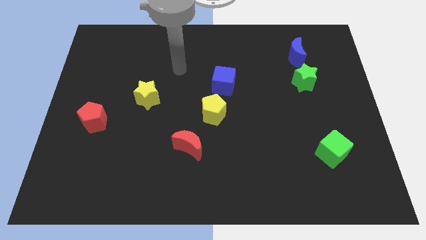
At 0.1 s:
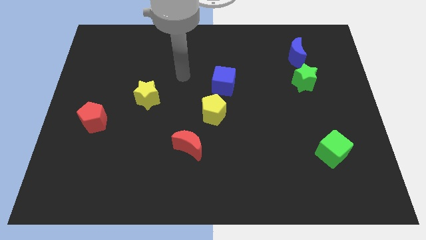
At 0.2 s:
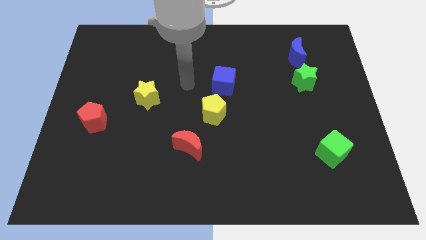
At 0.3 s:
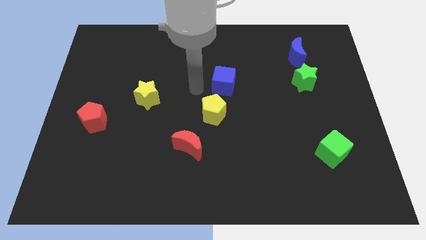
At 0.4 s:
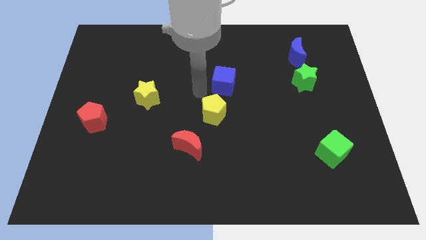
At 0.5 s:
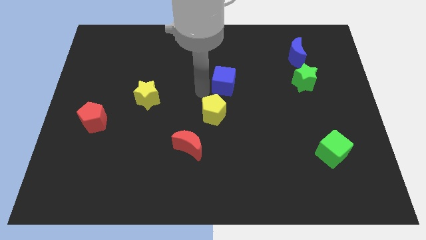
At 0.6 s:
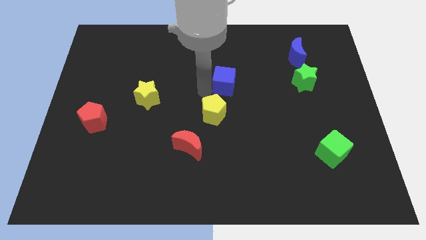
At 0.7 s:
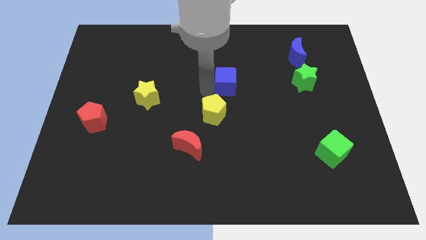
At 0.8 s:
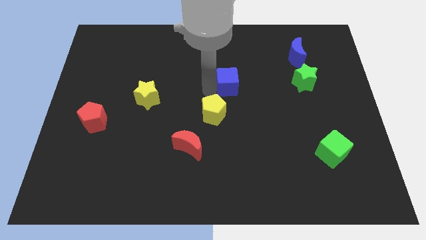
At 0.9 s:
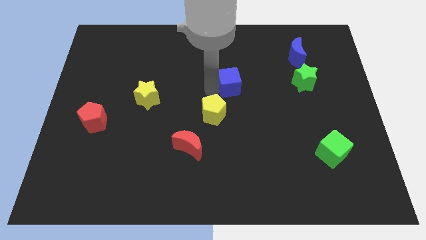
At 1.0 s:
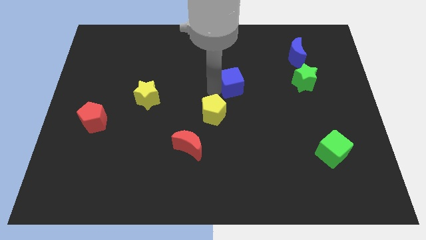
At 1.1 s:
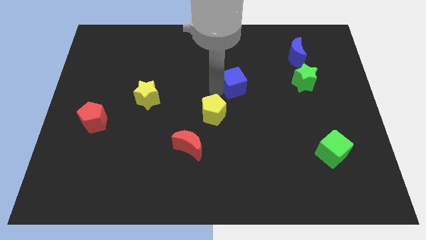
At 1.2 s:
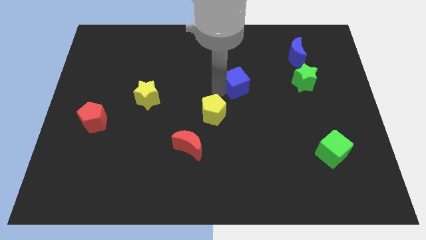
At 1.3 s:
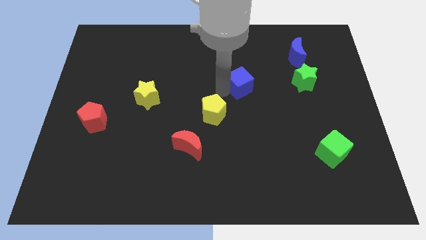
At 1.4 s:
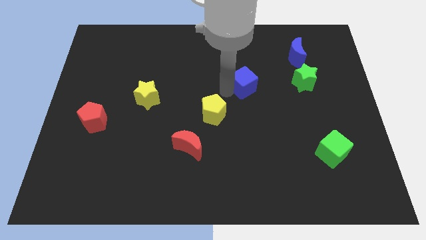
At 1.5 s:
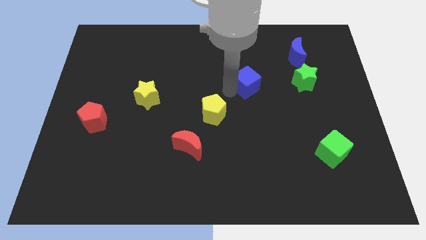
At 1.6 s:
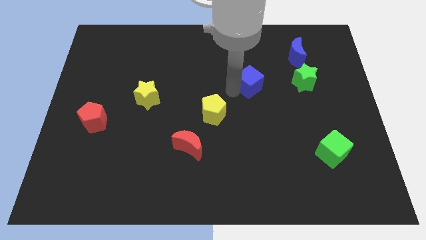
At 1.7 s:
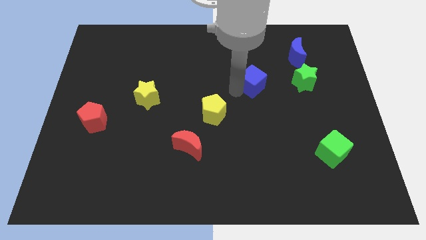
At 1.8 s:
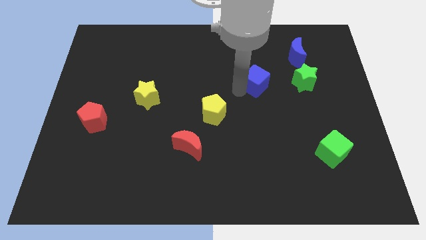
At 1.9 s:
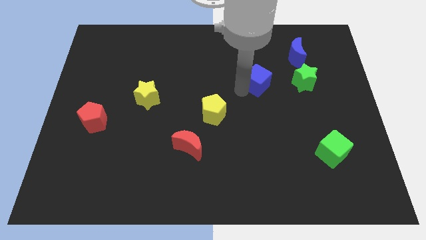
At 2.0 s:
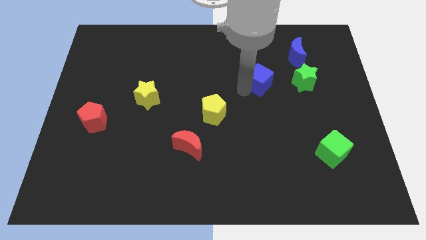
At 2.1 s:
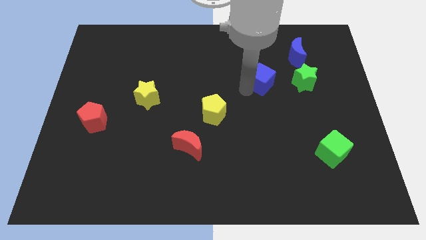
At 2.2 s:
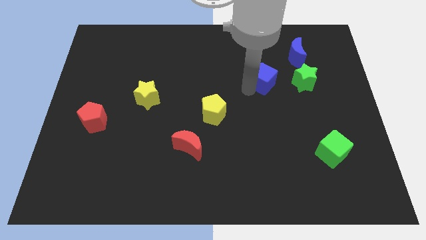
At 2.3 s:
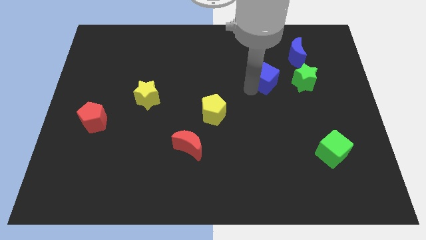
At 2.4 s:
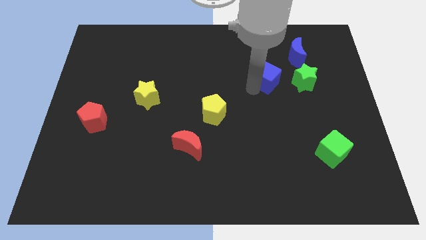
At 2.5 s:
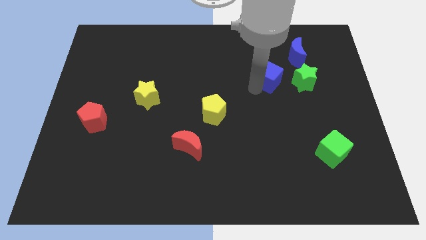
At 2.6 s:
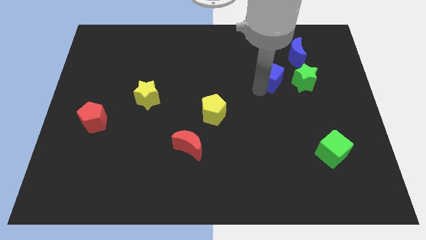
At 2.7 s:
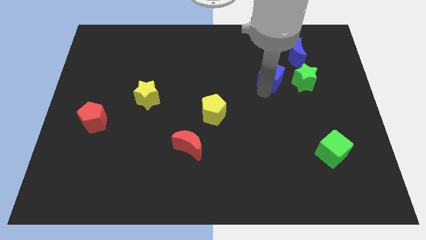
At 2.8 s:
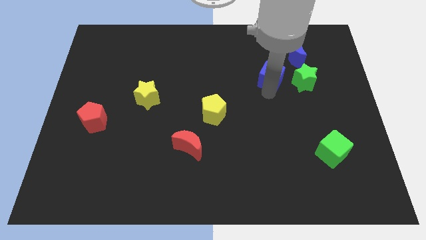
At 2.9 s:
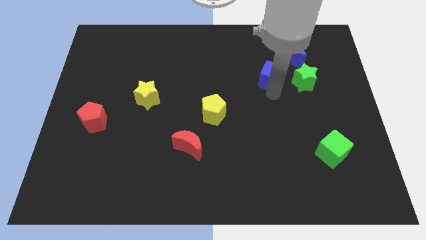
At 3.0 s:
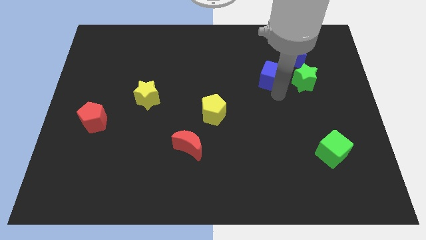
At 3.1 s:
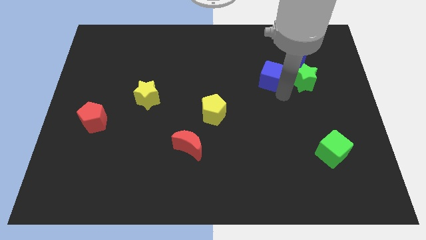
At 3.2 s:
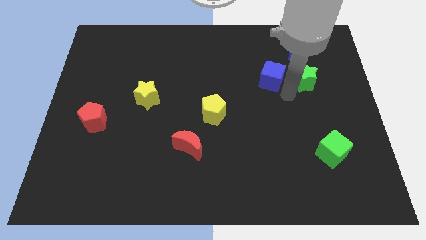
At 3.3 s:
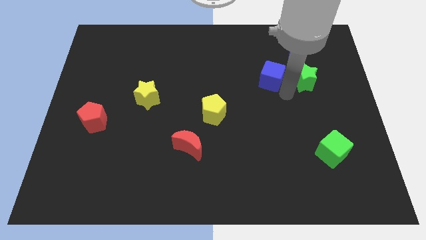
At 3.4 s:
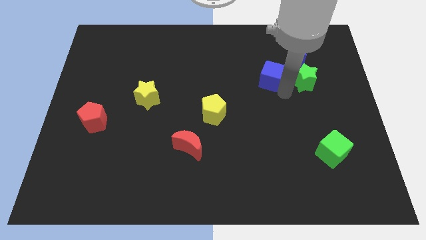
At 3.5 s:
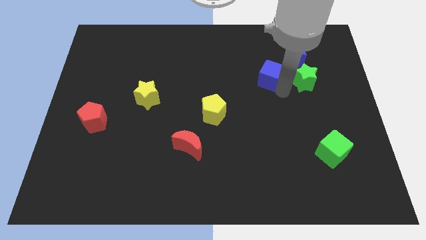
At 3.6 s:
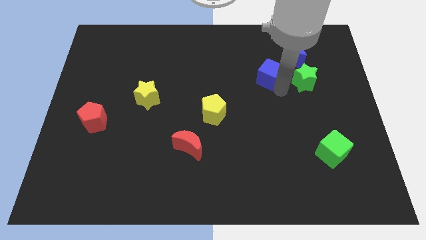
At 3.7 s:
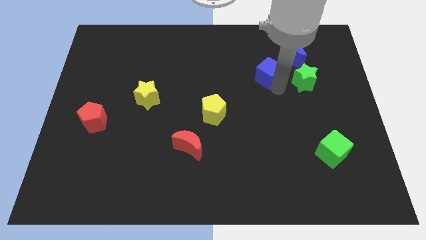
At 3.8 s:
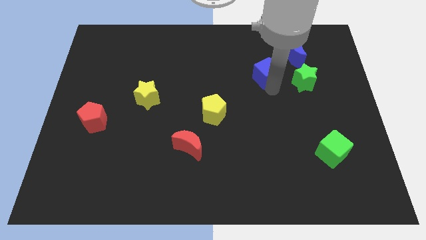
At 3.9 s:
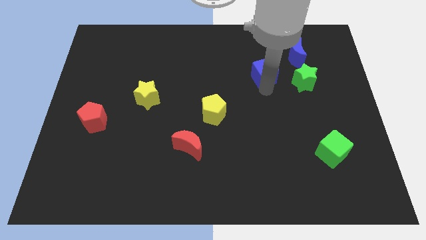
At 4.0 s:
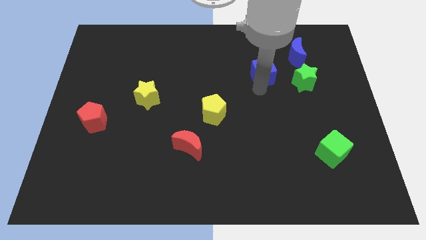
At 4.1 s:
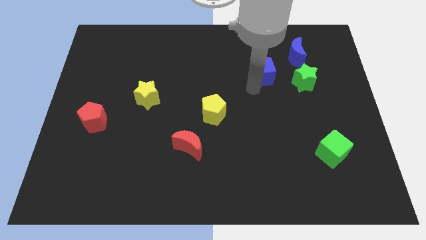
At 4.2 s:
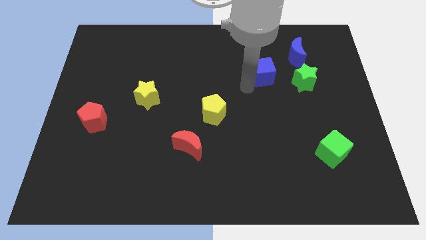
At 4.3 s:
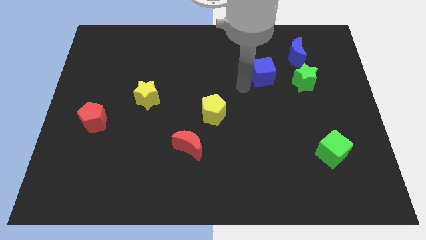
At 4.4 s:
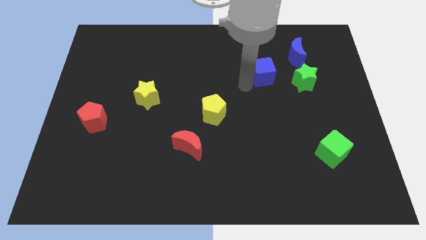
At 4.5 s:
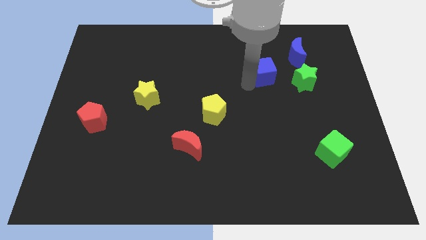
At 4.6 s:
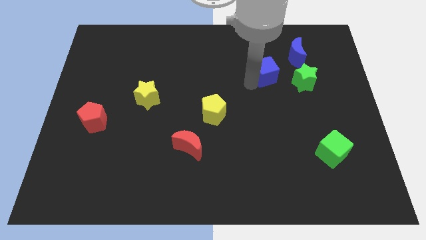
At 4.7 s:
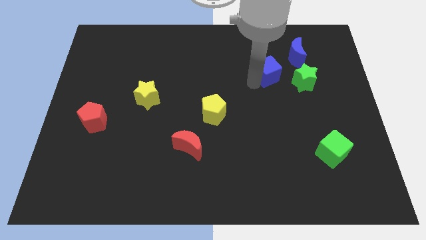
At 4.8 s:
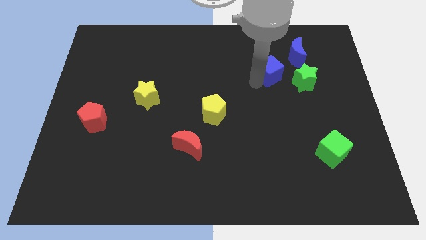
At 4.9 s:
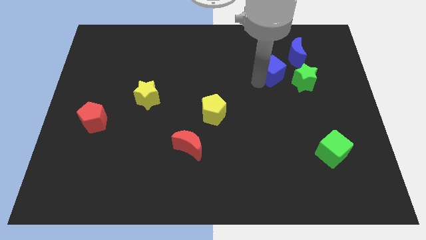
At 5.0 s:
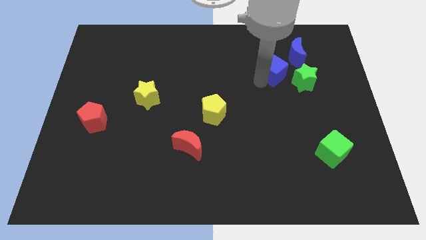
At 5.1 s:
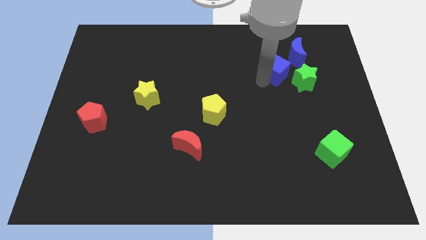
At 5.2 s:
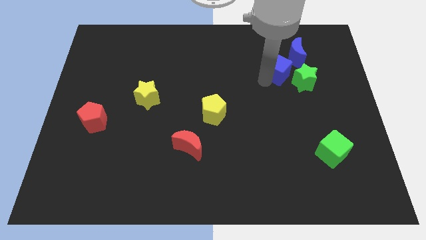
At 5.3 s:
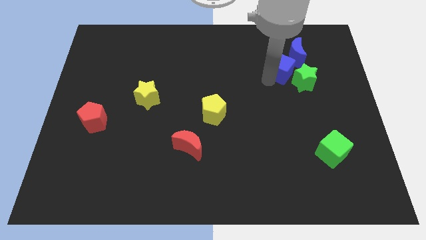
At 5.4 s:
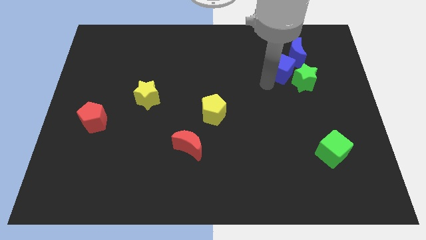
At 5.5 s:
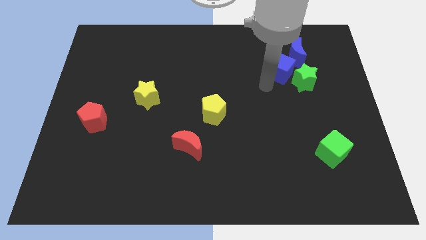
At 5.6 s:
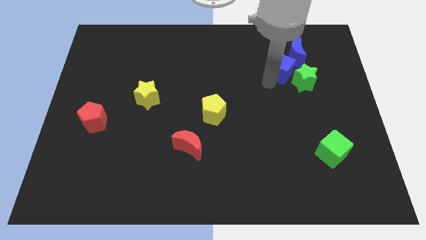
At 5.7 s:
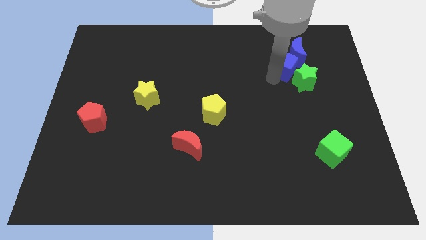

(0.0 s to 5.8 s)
push the blue cube next to the blue moon

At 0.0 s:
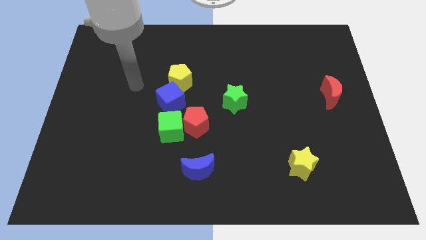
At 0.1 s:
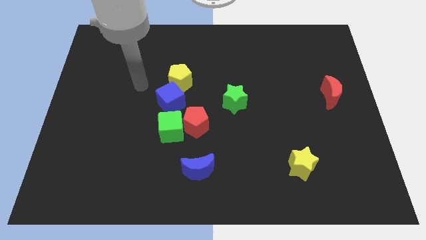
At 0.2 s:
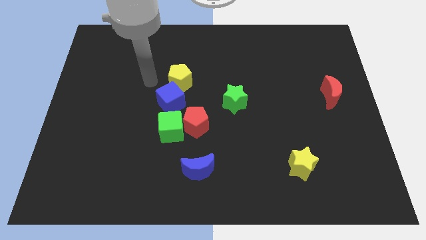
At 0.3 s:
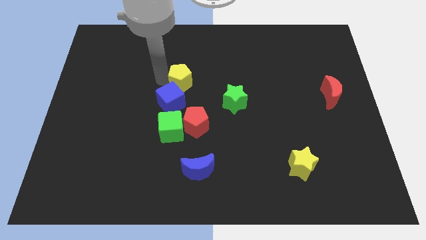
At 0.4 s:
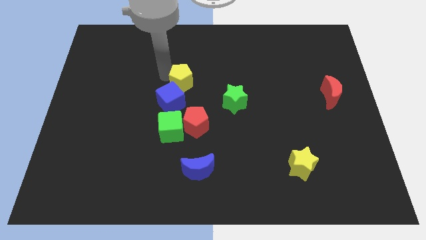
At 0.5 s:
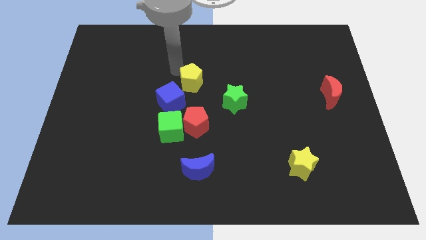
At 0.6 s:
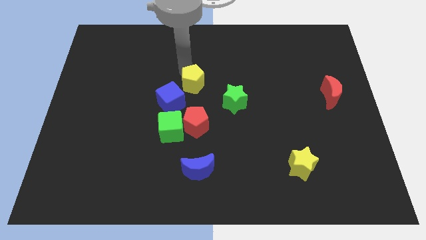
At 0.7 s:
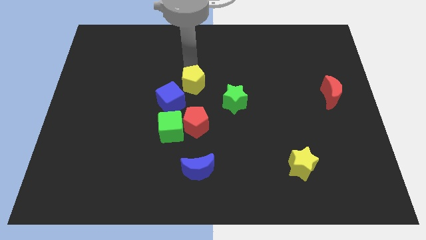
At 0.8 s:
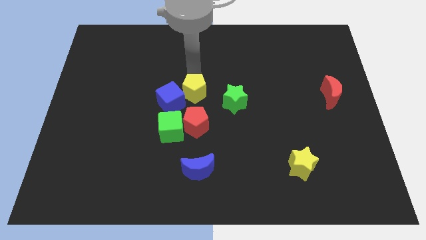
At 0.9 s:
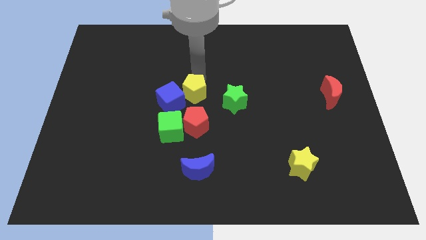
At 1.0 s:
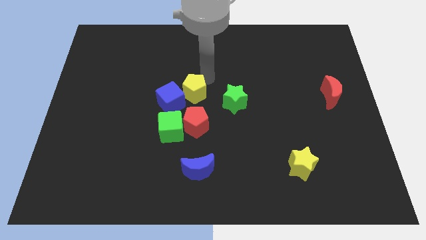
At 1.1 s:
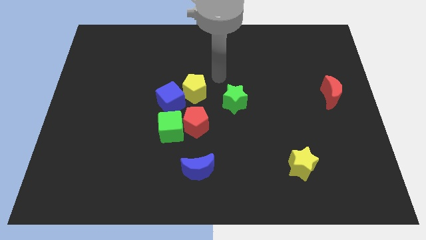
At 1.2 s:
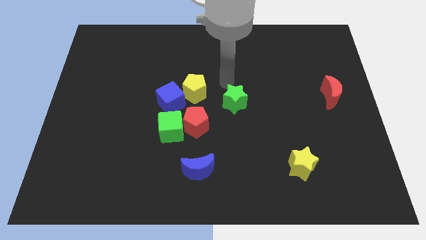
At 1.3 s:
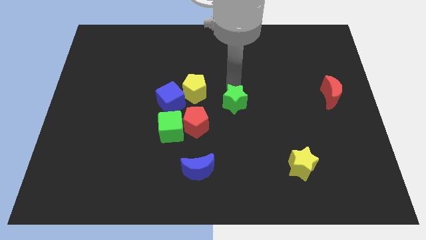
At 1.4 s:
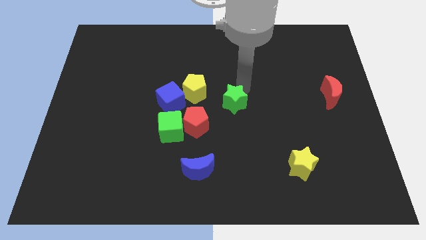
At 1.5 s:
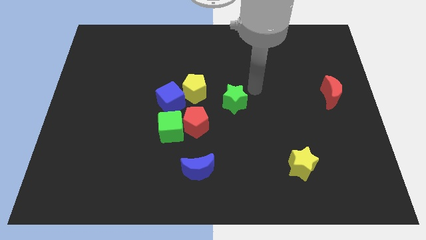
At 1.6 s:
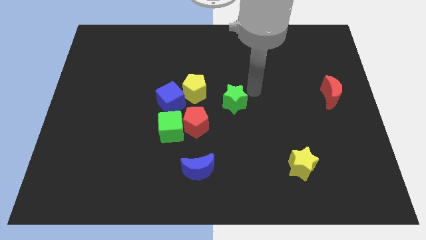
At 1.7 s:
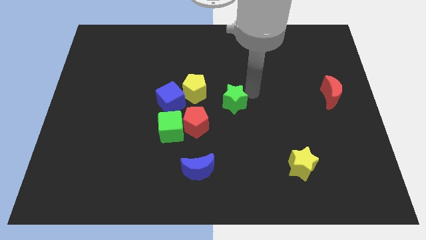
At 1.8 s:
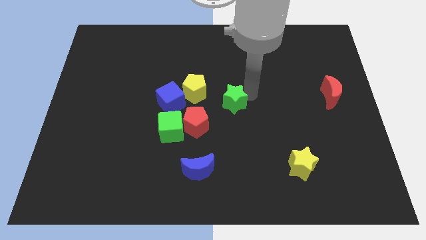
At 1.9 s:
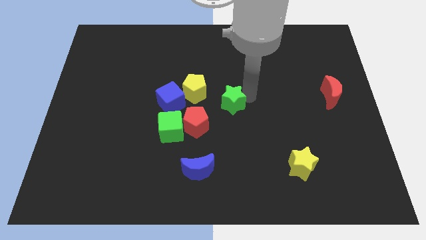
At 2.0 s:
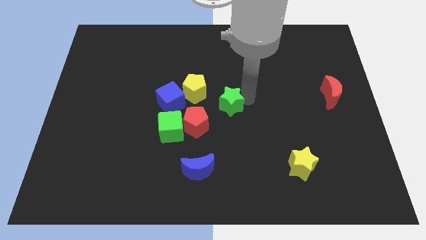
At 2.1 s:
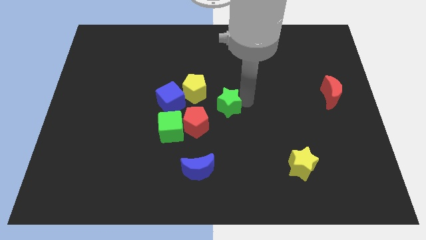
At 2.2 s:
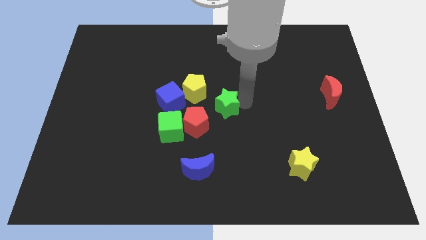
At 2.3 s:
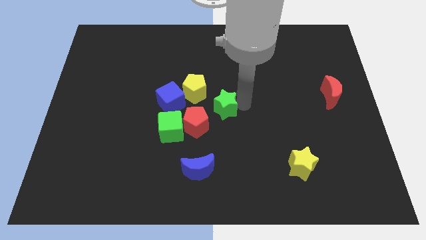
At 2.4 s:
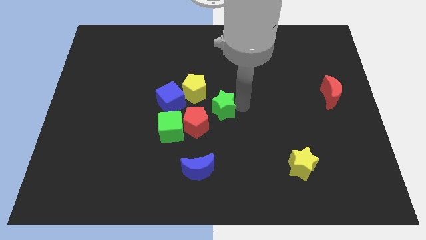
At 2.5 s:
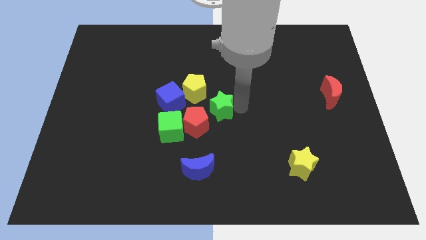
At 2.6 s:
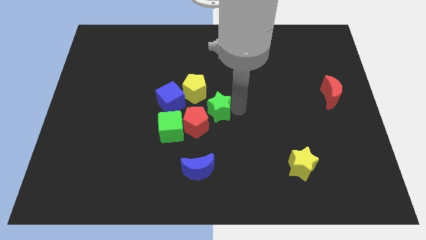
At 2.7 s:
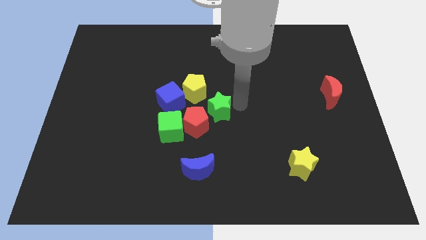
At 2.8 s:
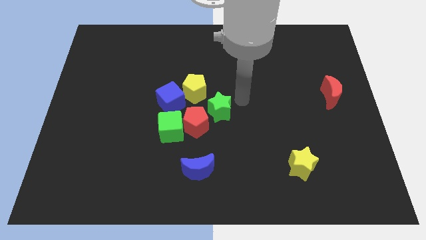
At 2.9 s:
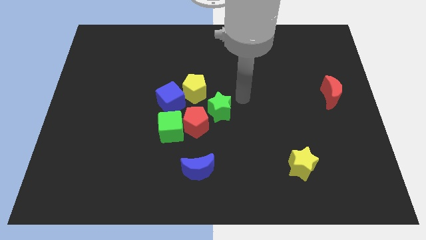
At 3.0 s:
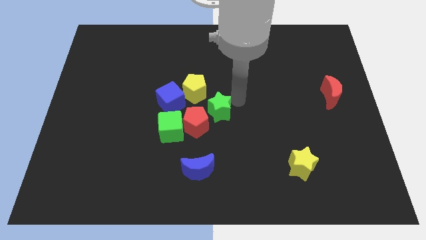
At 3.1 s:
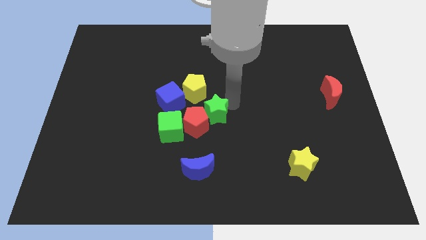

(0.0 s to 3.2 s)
move the green star next to the red pentagon
